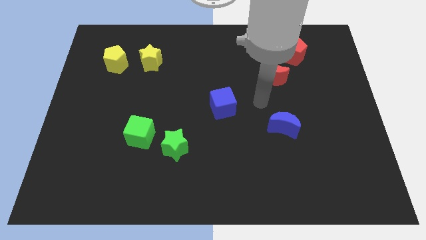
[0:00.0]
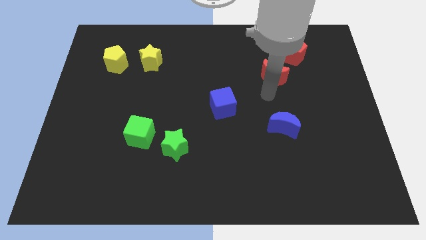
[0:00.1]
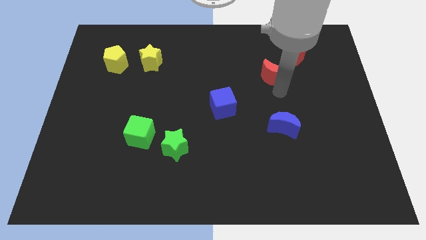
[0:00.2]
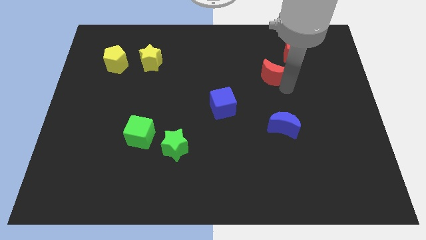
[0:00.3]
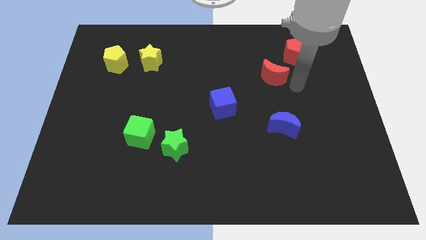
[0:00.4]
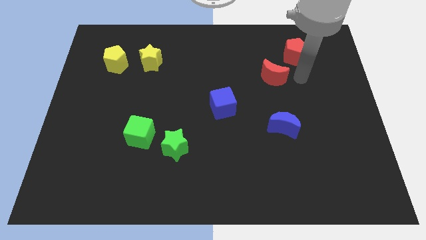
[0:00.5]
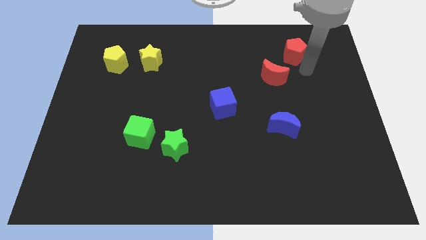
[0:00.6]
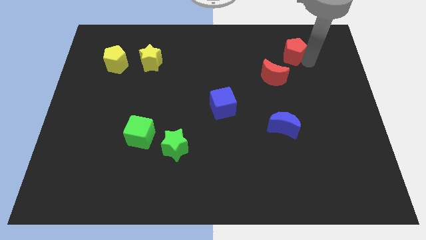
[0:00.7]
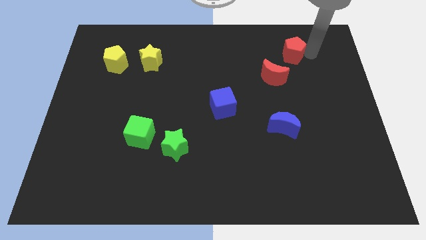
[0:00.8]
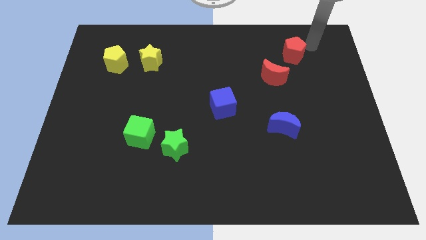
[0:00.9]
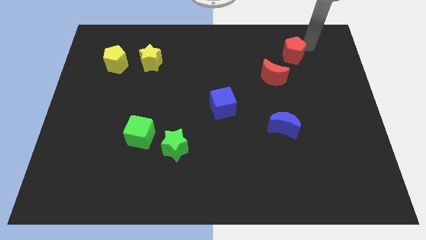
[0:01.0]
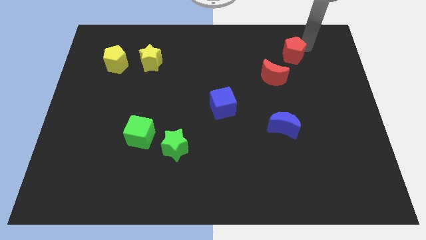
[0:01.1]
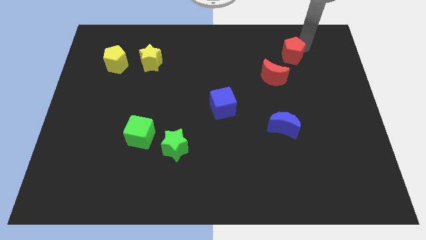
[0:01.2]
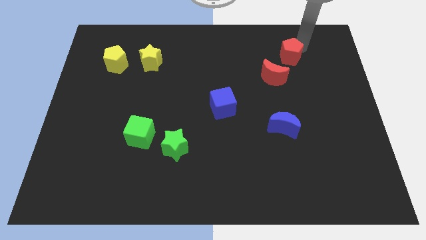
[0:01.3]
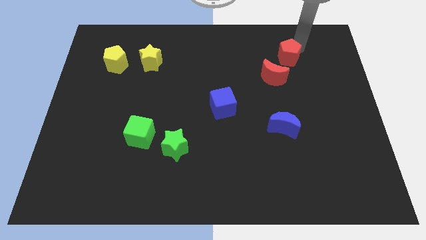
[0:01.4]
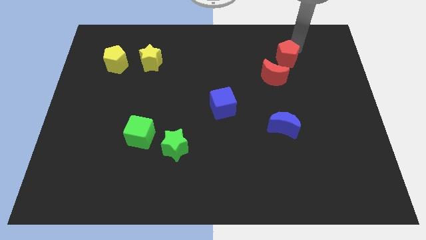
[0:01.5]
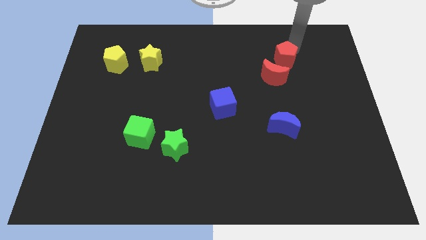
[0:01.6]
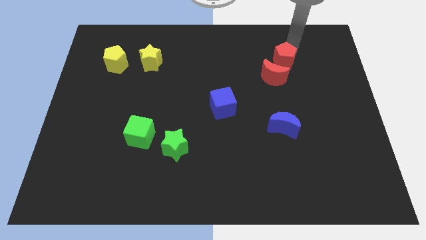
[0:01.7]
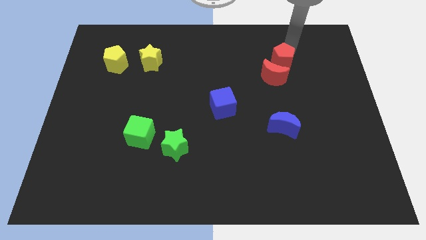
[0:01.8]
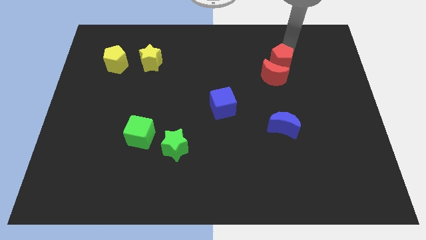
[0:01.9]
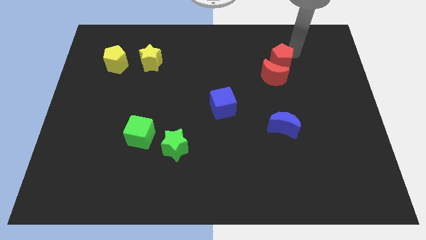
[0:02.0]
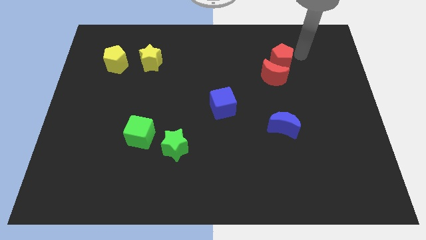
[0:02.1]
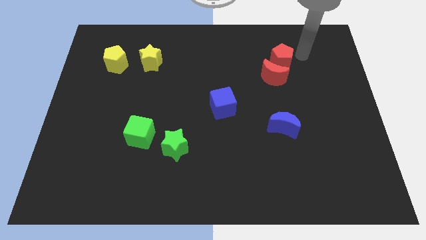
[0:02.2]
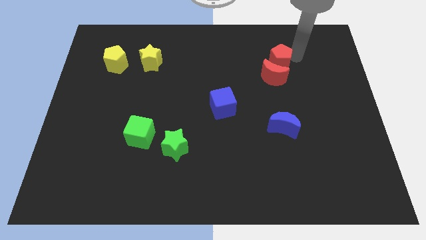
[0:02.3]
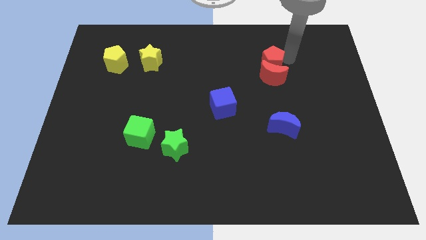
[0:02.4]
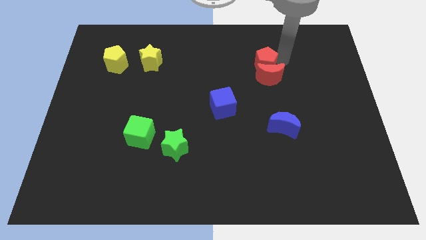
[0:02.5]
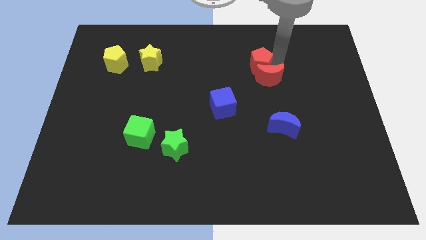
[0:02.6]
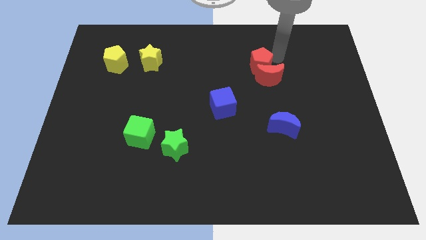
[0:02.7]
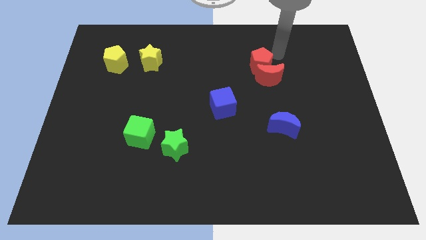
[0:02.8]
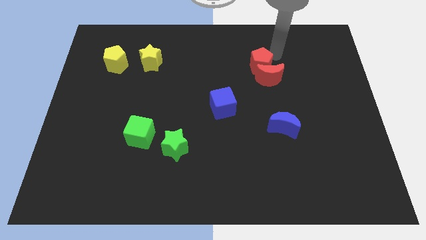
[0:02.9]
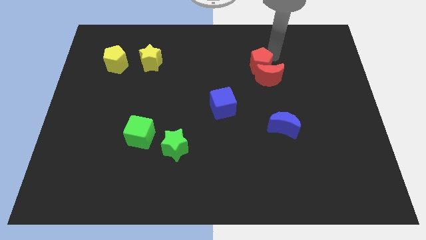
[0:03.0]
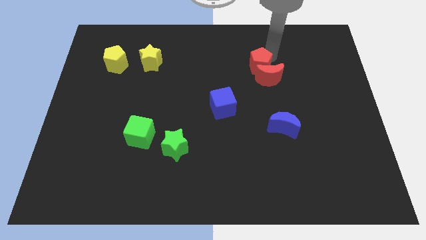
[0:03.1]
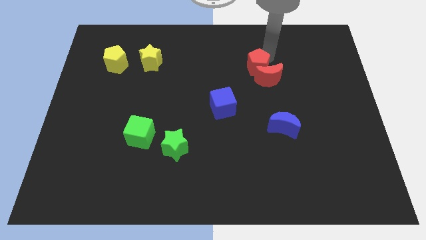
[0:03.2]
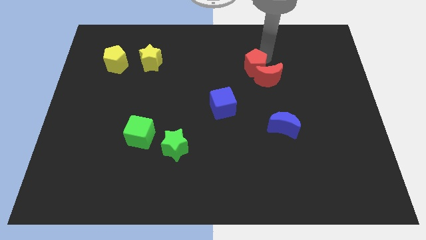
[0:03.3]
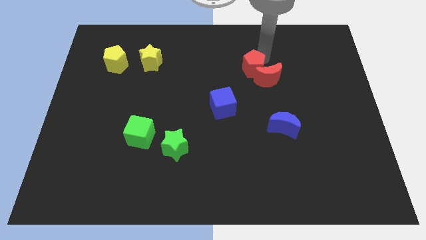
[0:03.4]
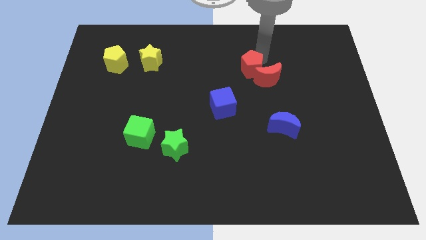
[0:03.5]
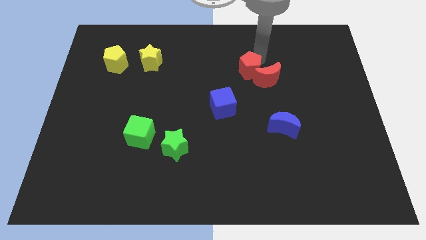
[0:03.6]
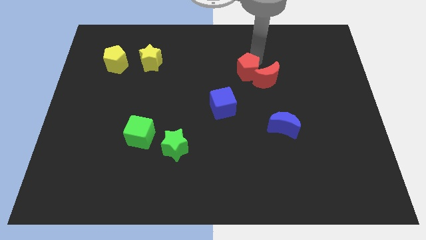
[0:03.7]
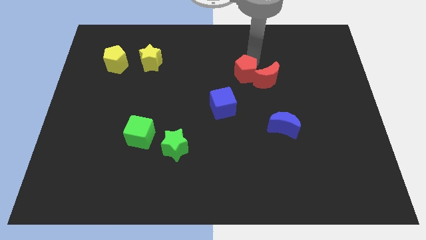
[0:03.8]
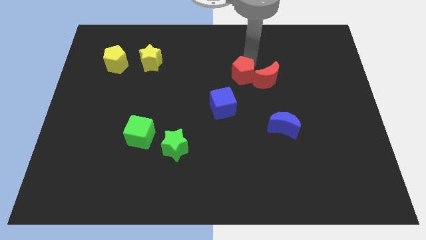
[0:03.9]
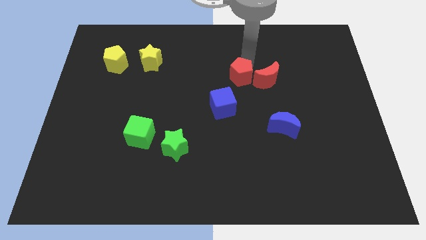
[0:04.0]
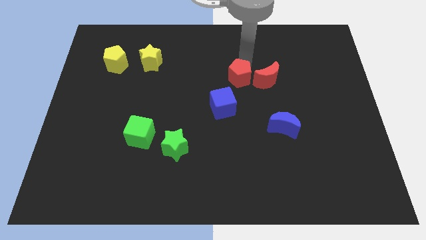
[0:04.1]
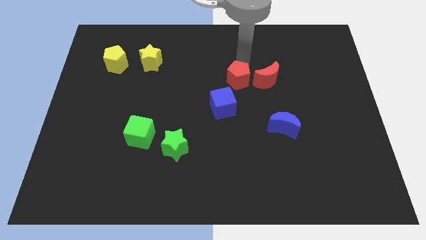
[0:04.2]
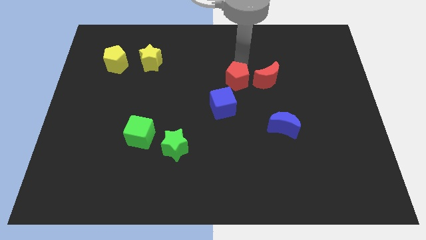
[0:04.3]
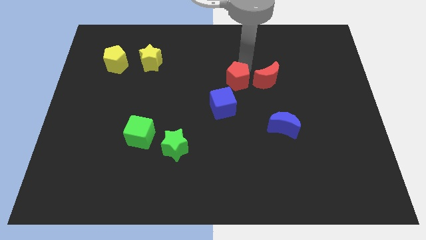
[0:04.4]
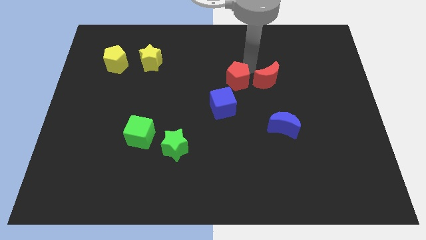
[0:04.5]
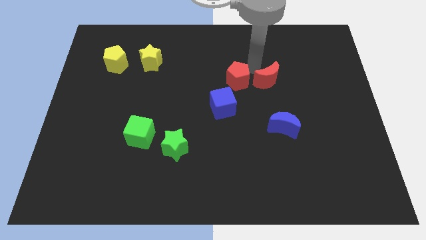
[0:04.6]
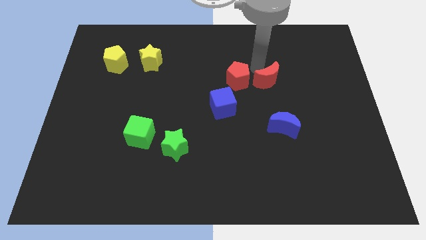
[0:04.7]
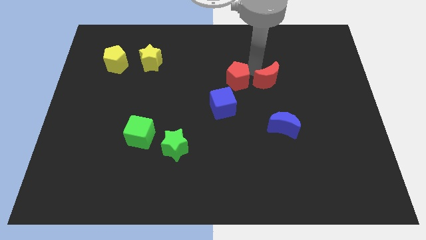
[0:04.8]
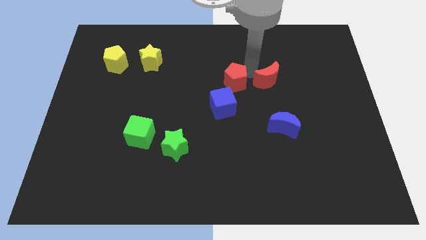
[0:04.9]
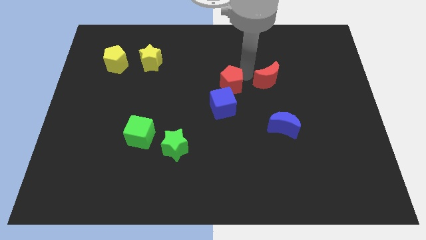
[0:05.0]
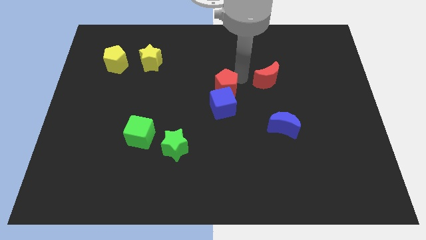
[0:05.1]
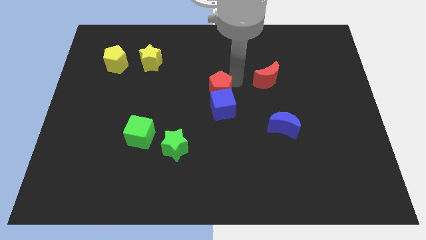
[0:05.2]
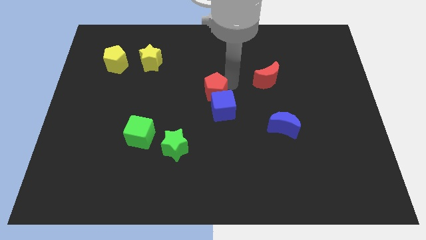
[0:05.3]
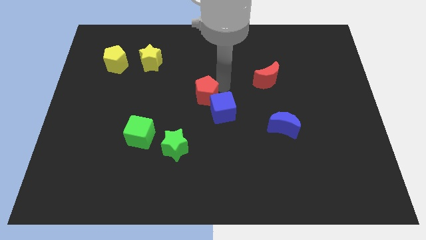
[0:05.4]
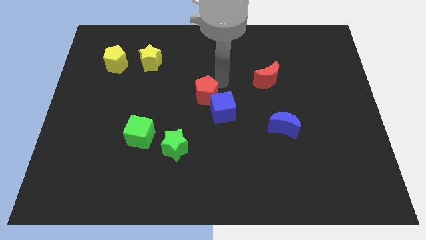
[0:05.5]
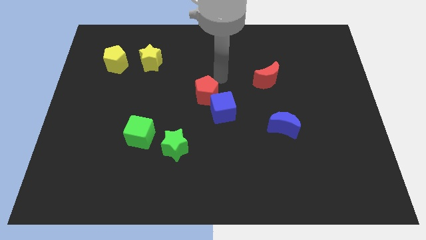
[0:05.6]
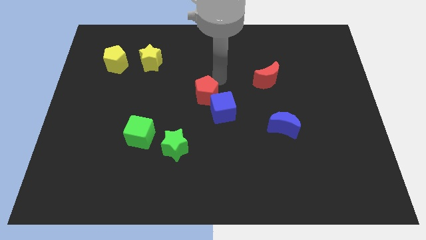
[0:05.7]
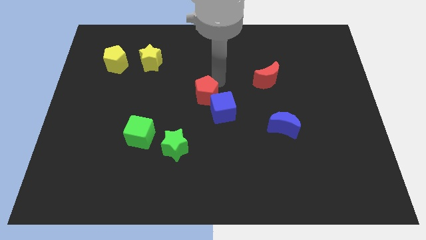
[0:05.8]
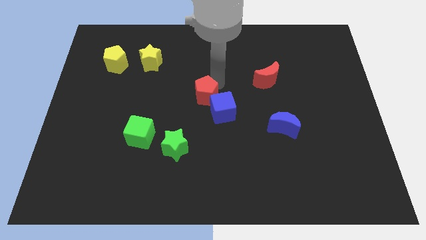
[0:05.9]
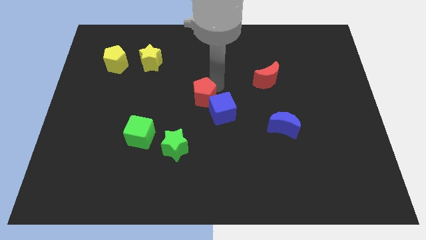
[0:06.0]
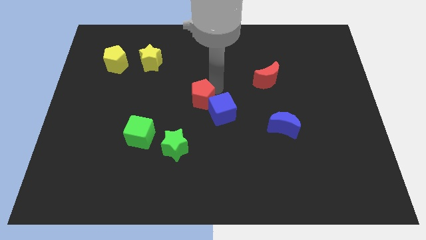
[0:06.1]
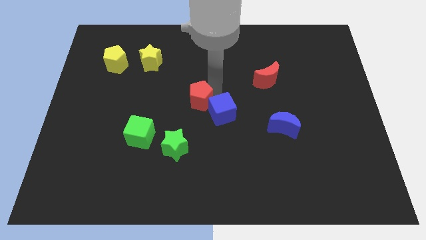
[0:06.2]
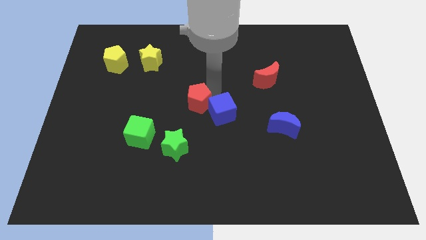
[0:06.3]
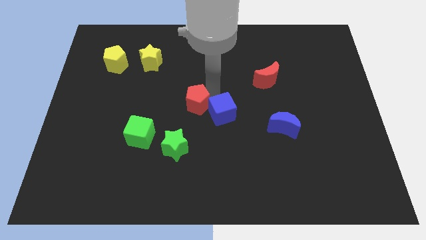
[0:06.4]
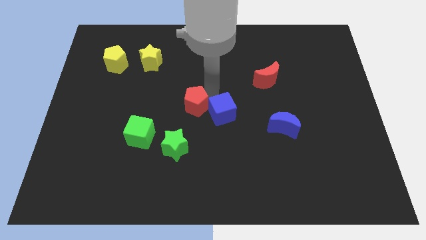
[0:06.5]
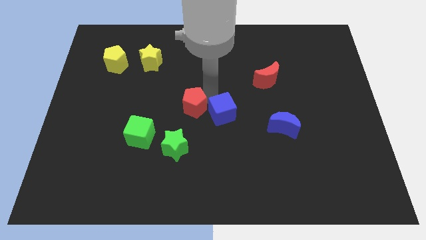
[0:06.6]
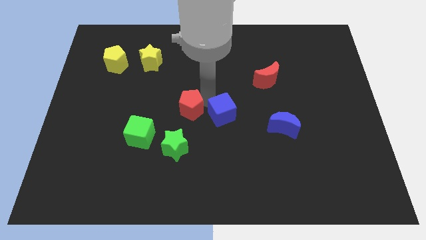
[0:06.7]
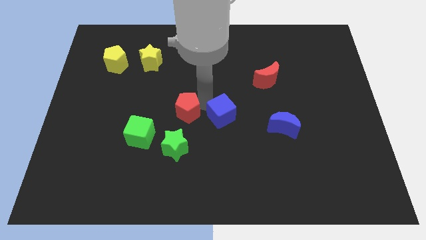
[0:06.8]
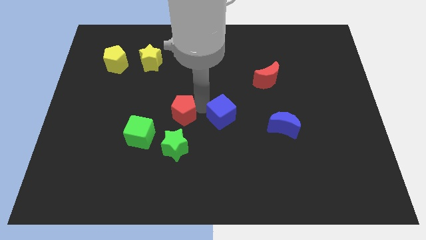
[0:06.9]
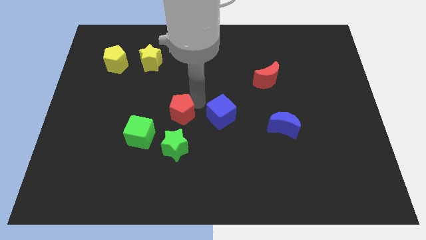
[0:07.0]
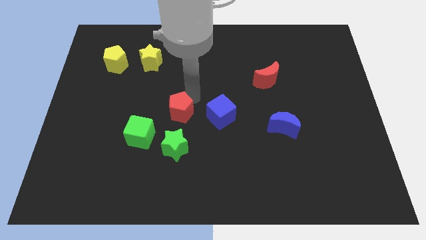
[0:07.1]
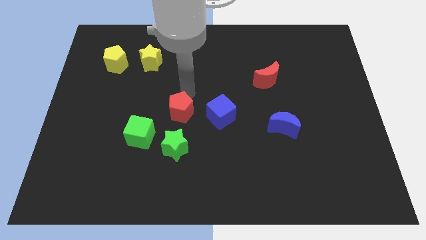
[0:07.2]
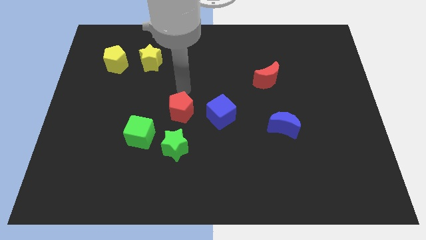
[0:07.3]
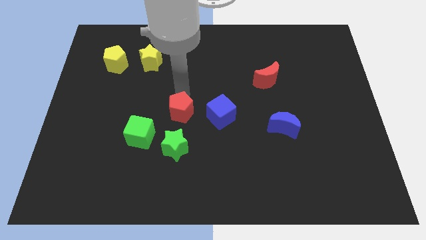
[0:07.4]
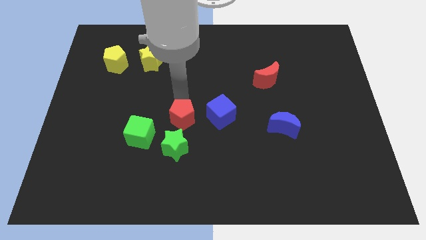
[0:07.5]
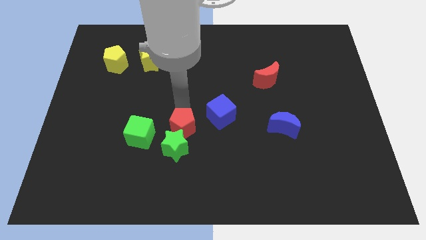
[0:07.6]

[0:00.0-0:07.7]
push the red pentagon next to the green star
